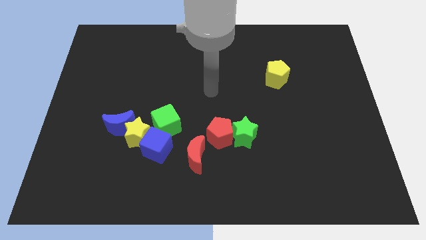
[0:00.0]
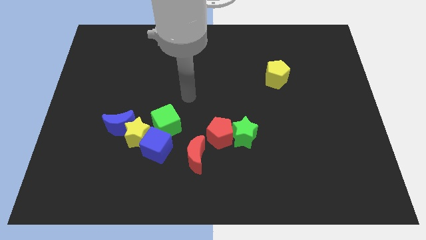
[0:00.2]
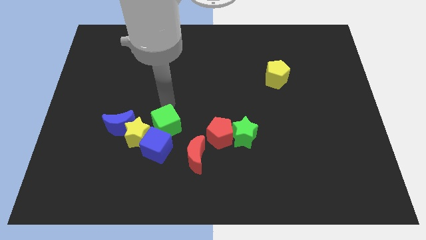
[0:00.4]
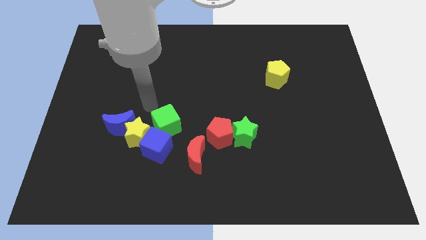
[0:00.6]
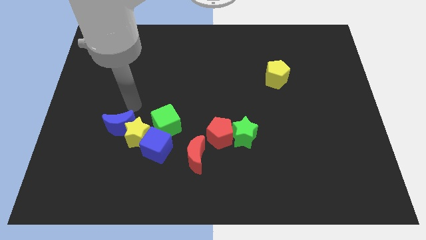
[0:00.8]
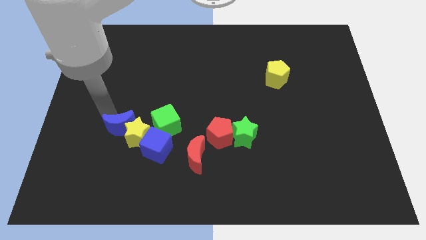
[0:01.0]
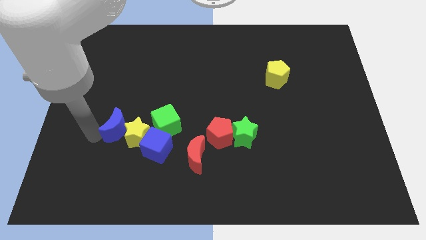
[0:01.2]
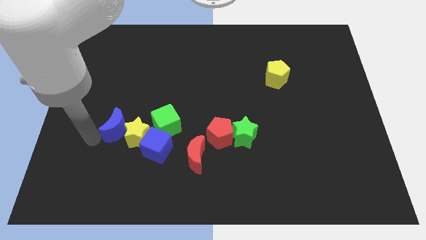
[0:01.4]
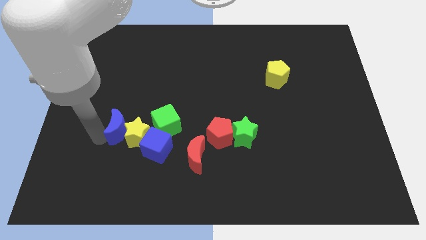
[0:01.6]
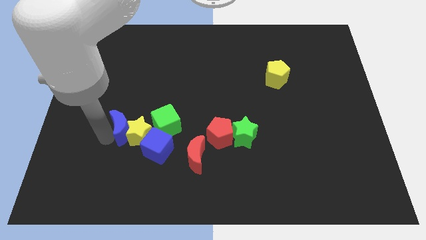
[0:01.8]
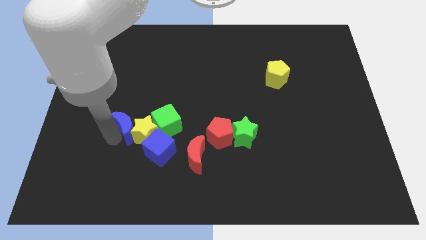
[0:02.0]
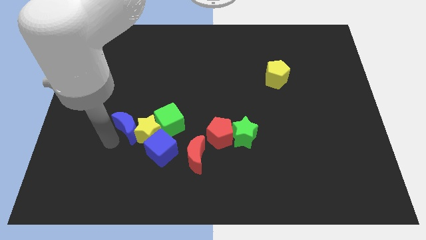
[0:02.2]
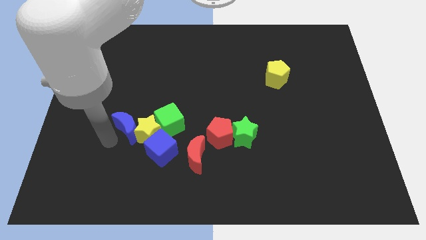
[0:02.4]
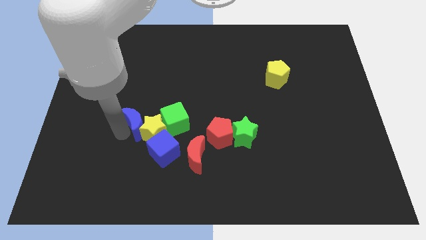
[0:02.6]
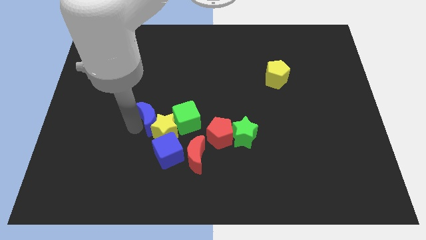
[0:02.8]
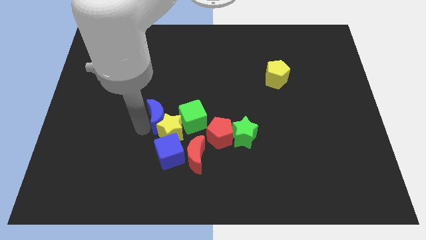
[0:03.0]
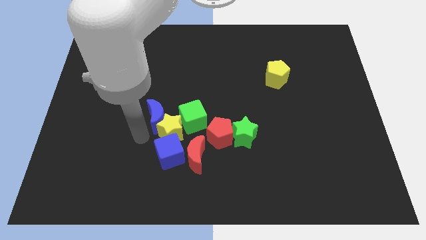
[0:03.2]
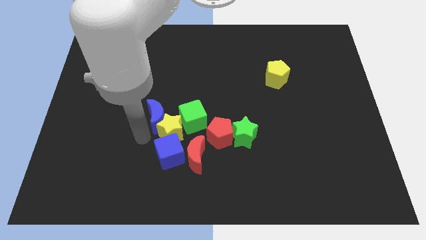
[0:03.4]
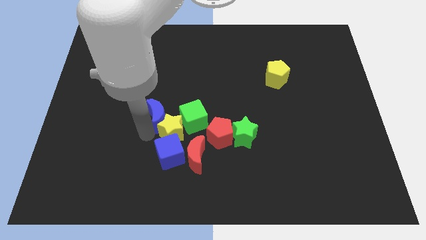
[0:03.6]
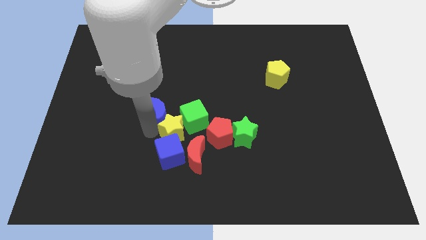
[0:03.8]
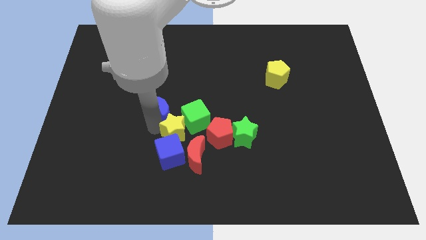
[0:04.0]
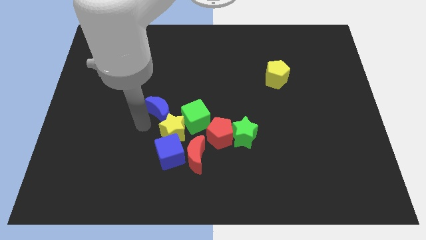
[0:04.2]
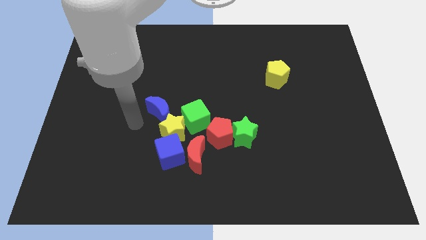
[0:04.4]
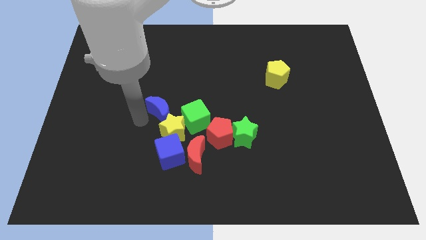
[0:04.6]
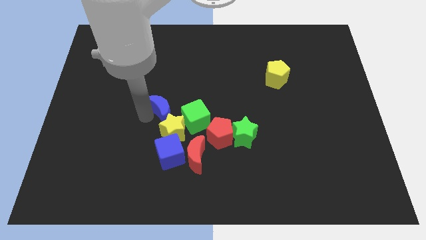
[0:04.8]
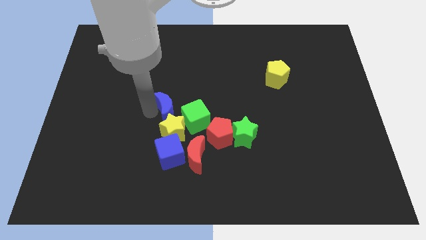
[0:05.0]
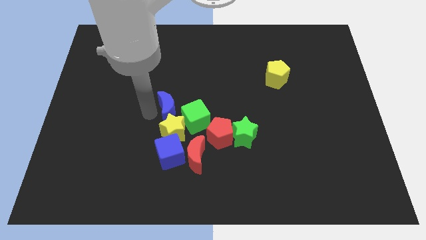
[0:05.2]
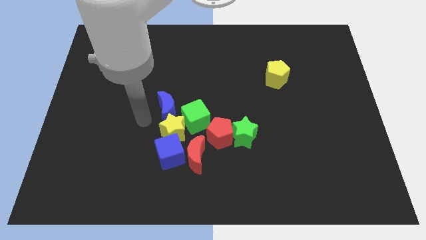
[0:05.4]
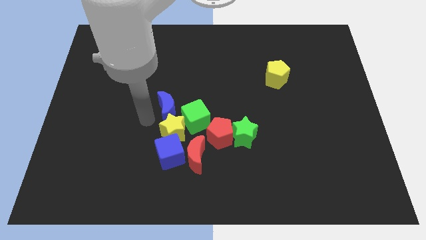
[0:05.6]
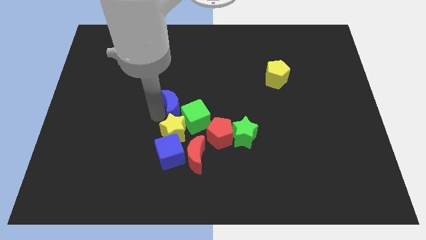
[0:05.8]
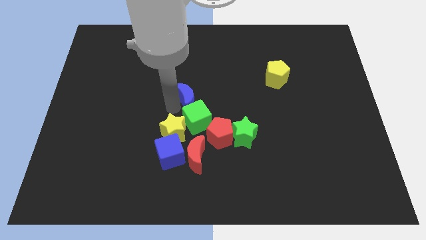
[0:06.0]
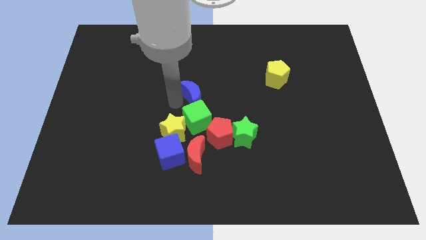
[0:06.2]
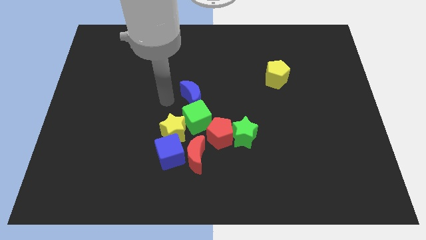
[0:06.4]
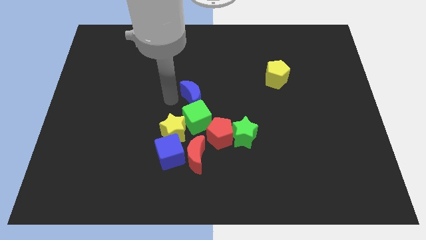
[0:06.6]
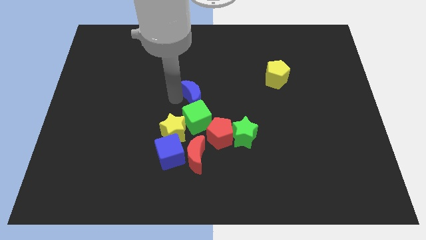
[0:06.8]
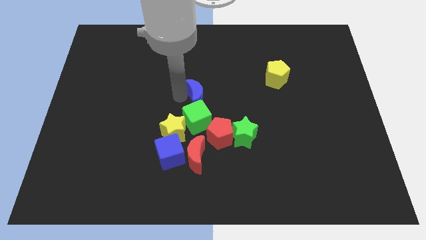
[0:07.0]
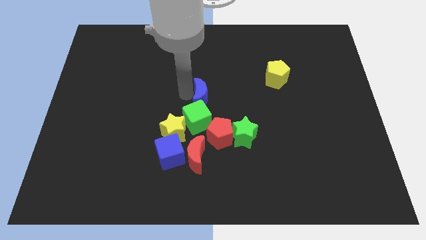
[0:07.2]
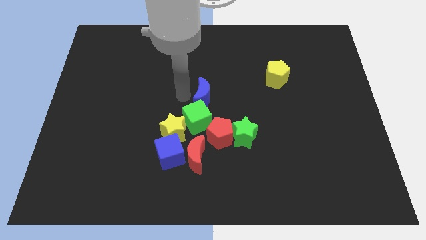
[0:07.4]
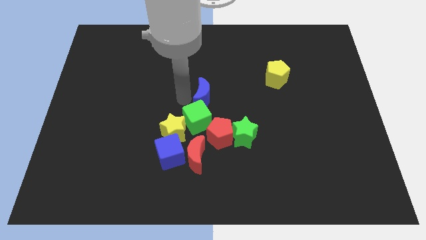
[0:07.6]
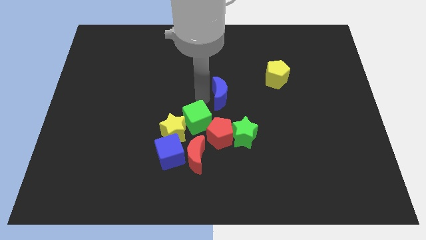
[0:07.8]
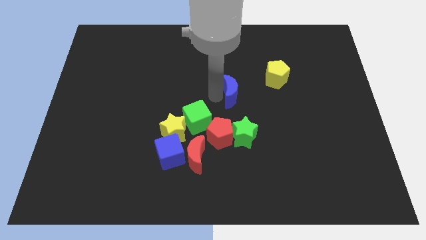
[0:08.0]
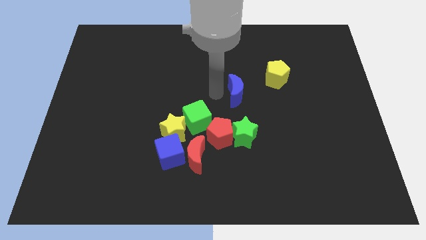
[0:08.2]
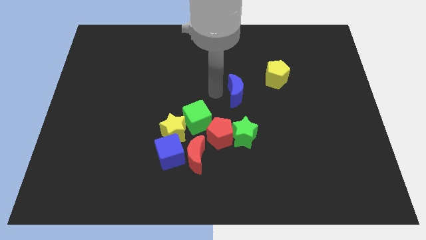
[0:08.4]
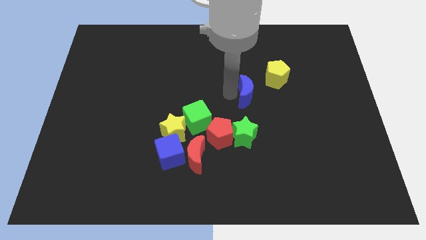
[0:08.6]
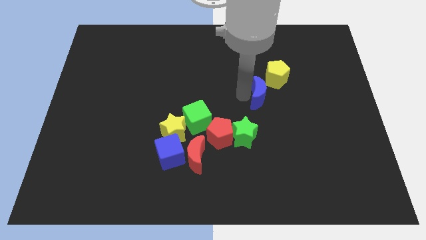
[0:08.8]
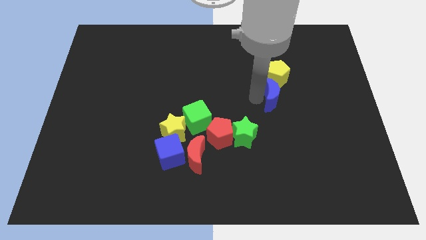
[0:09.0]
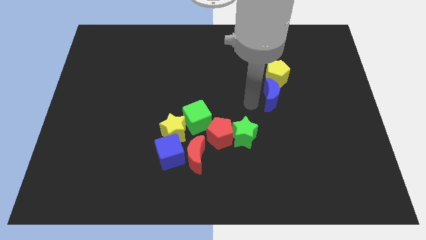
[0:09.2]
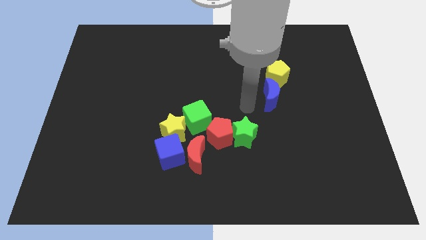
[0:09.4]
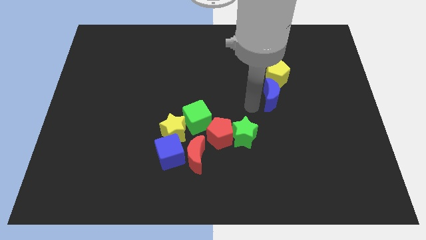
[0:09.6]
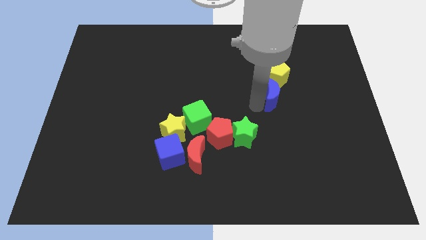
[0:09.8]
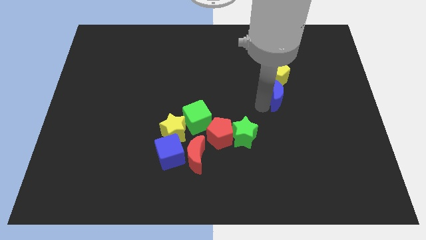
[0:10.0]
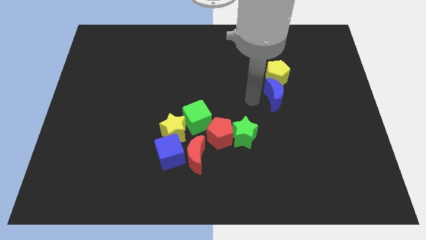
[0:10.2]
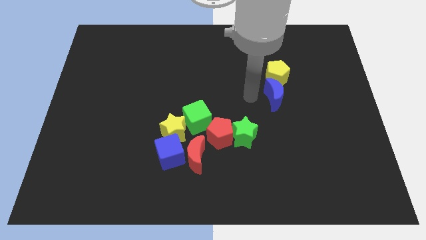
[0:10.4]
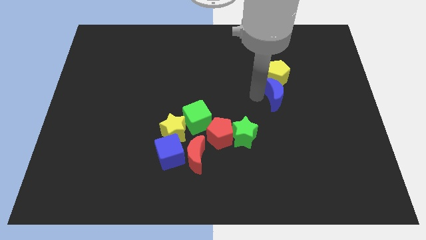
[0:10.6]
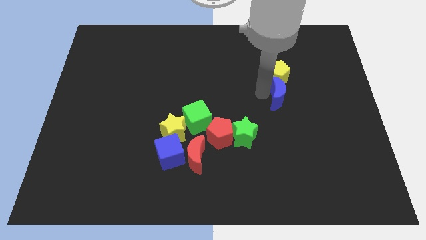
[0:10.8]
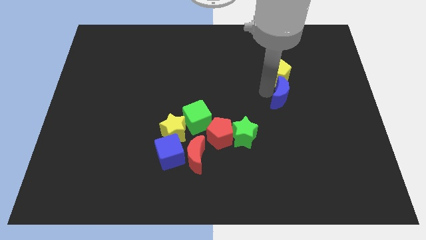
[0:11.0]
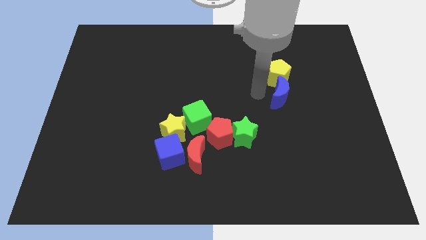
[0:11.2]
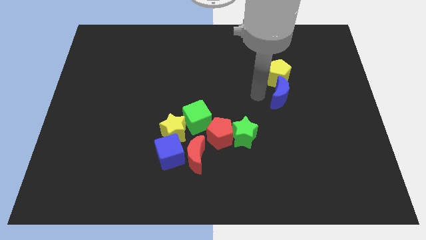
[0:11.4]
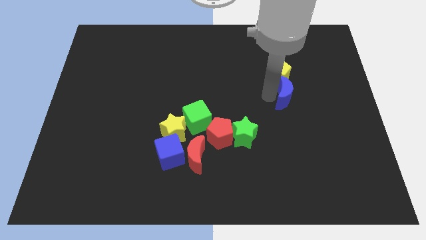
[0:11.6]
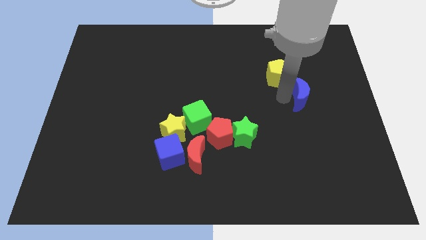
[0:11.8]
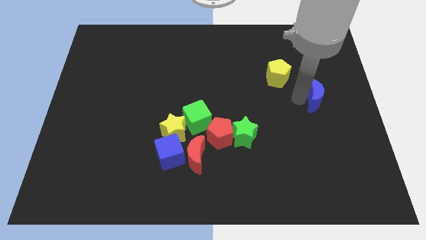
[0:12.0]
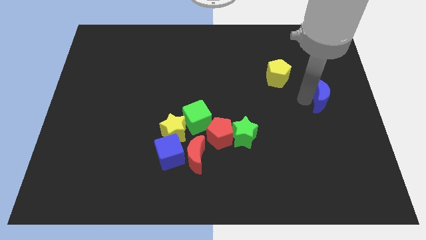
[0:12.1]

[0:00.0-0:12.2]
move the blue moon to the right side
